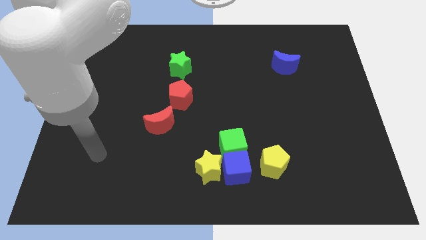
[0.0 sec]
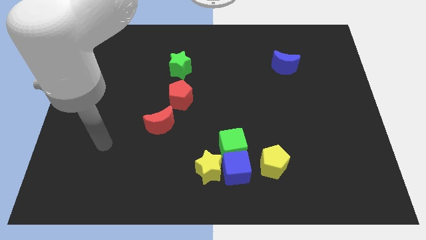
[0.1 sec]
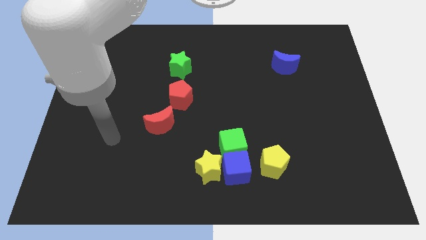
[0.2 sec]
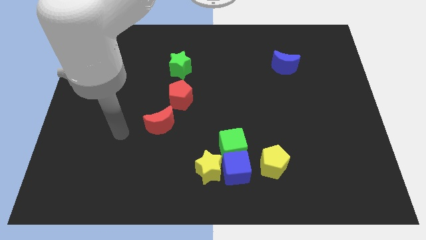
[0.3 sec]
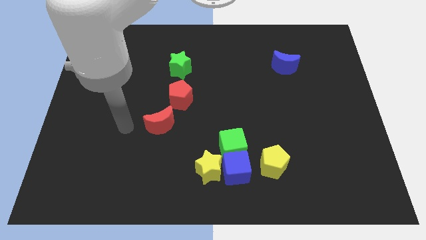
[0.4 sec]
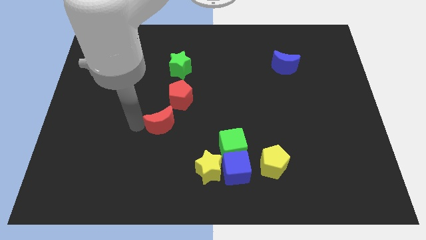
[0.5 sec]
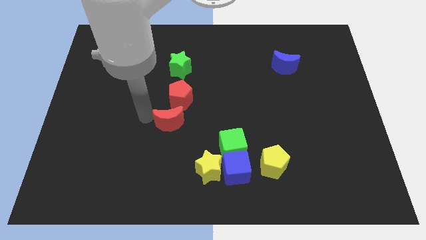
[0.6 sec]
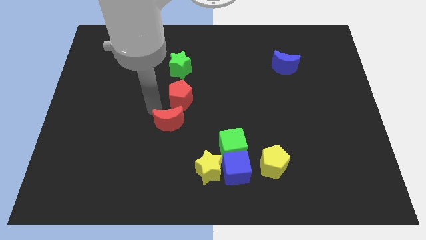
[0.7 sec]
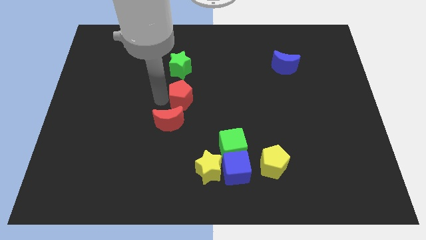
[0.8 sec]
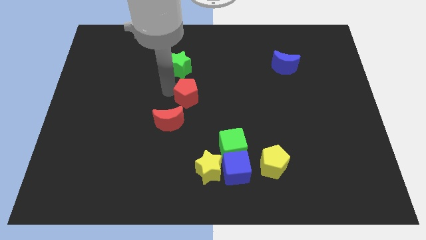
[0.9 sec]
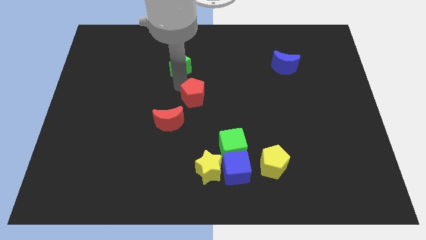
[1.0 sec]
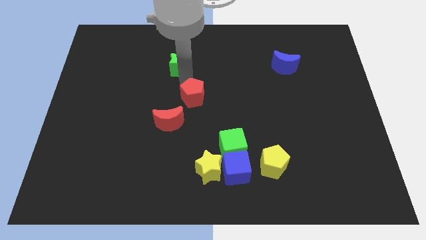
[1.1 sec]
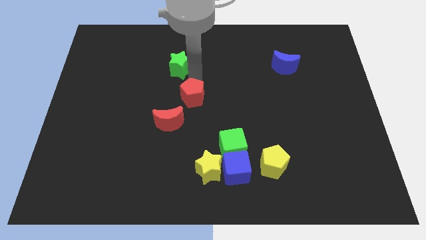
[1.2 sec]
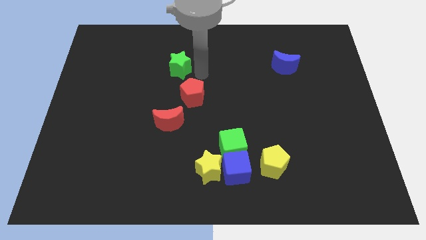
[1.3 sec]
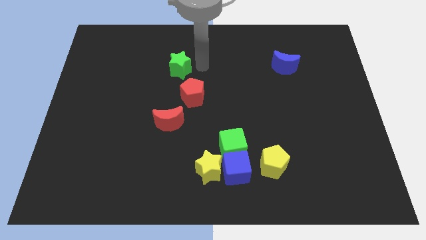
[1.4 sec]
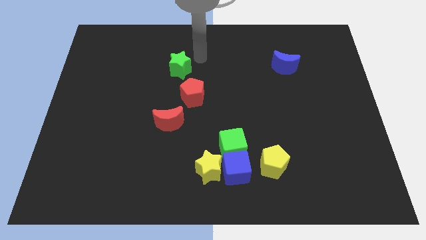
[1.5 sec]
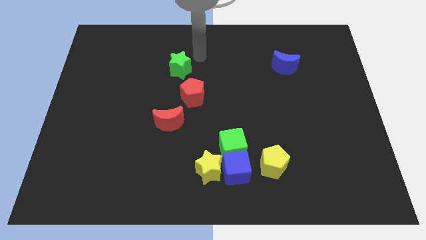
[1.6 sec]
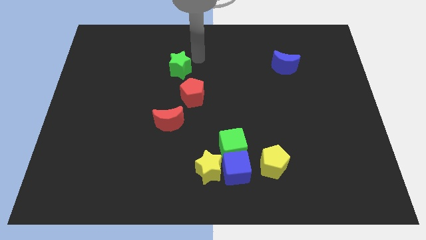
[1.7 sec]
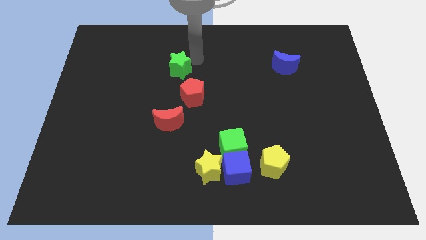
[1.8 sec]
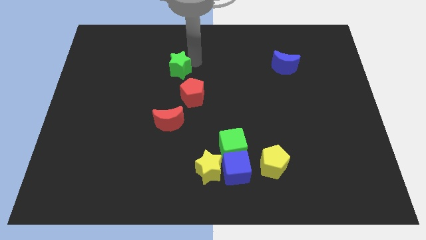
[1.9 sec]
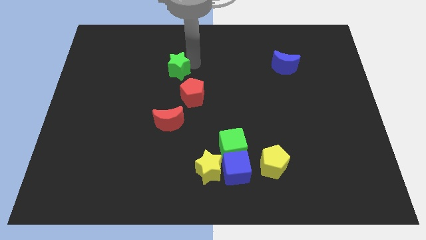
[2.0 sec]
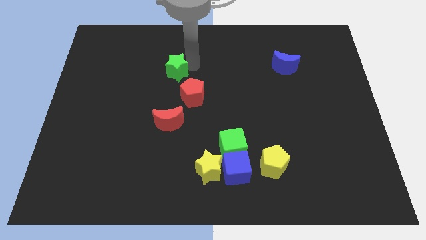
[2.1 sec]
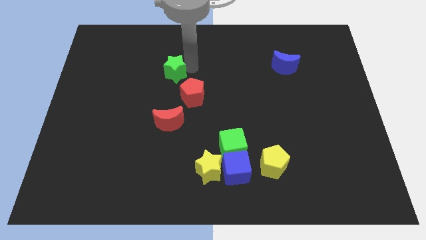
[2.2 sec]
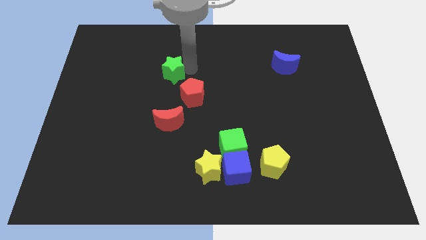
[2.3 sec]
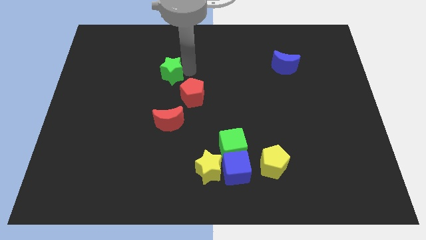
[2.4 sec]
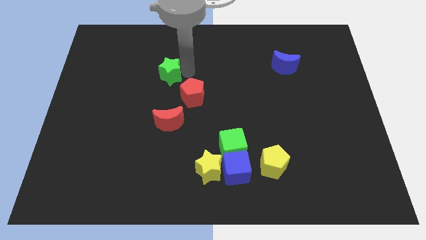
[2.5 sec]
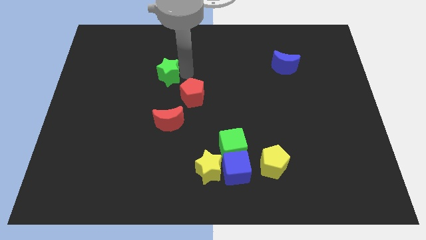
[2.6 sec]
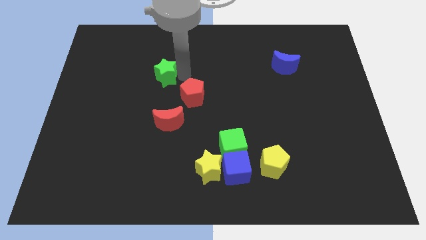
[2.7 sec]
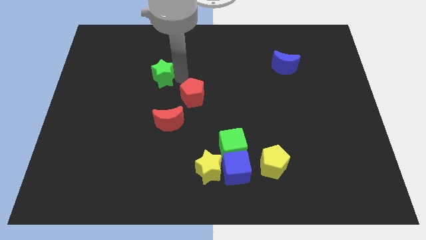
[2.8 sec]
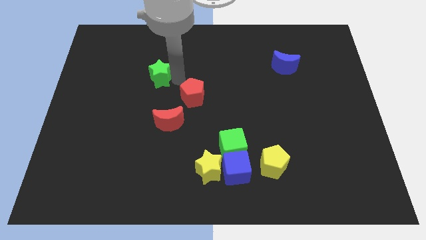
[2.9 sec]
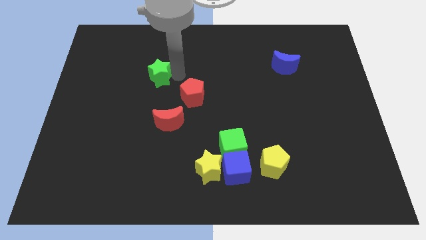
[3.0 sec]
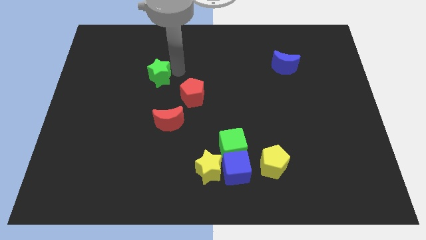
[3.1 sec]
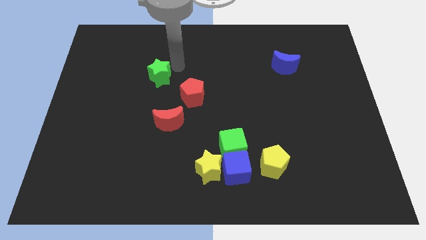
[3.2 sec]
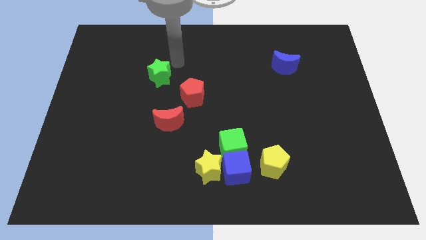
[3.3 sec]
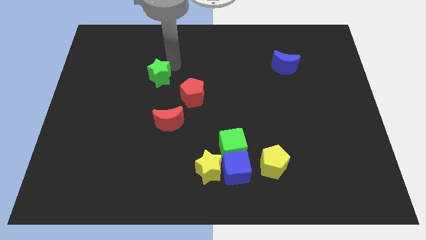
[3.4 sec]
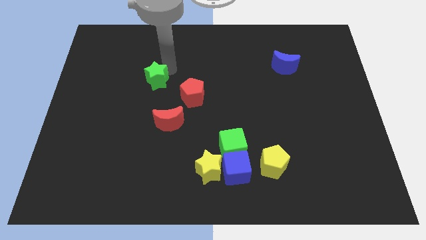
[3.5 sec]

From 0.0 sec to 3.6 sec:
move the green star diagonally downwards and left a little bit

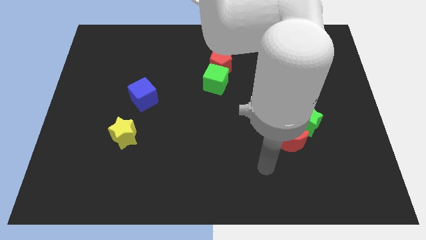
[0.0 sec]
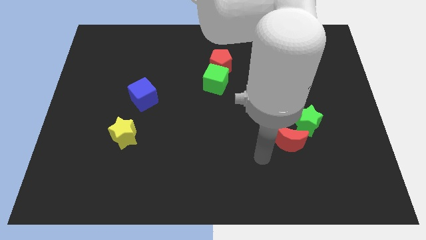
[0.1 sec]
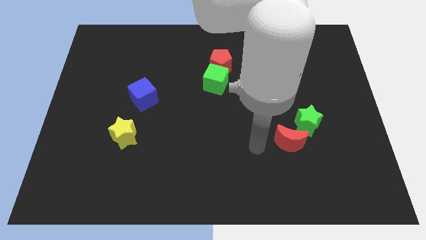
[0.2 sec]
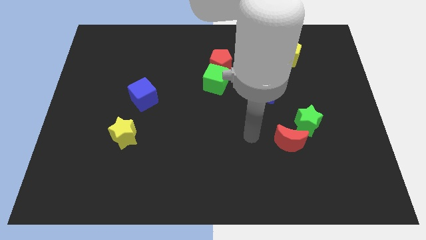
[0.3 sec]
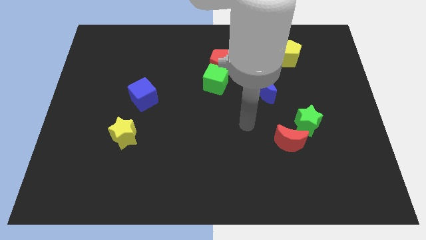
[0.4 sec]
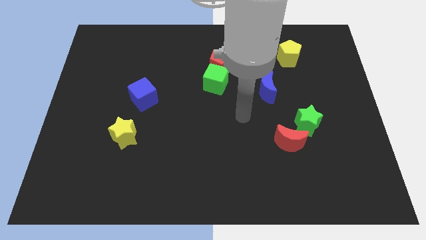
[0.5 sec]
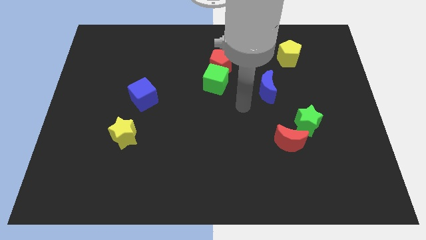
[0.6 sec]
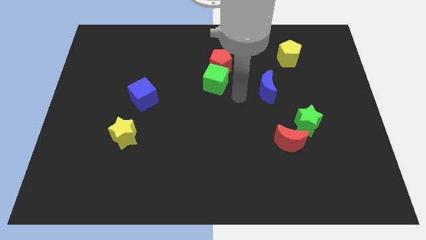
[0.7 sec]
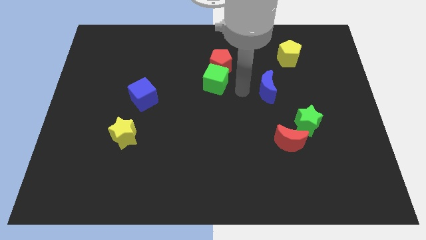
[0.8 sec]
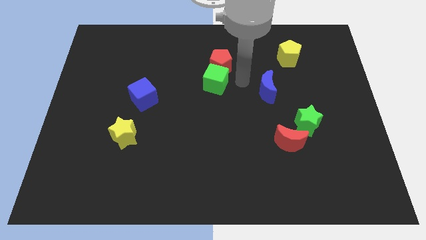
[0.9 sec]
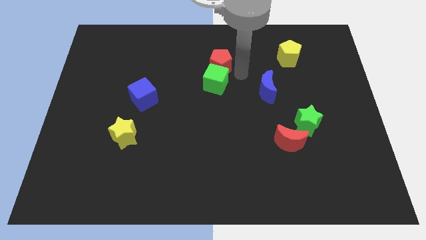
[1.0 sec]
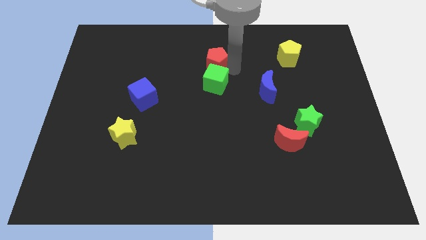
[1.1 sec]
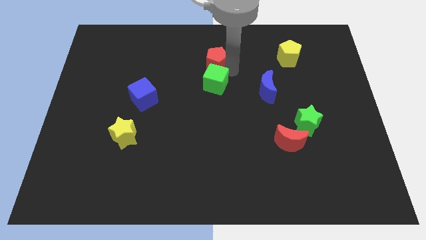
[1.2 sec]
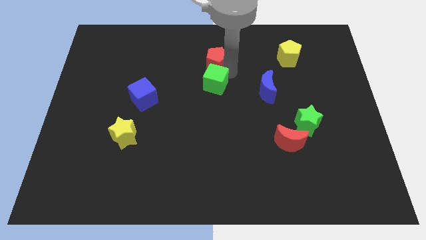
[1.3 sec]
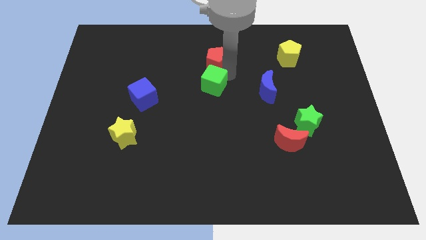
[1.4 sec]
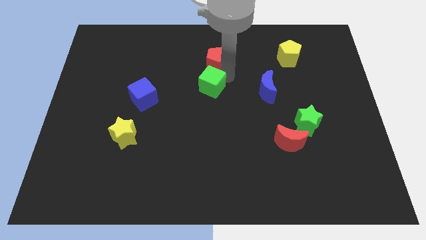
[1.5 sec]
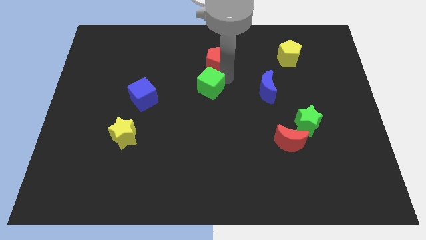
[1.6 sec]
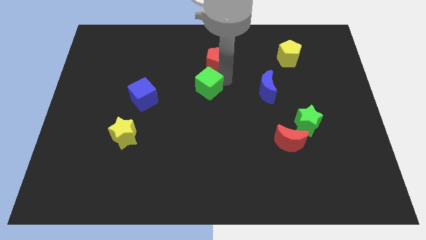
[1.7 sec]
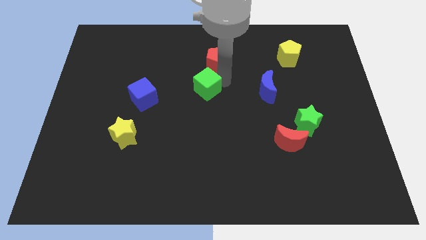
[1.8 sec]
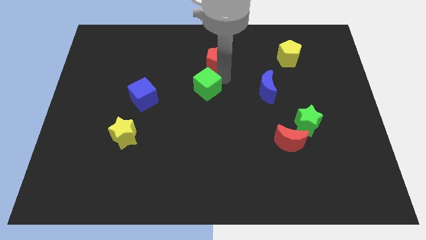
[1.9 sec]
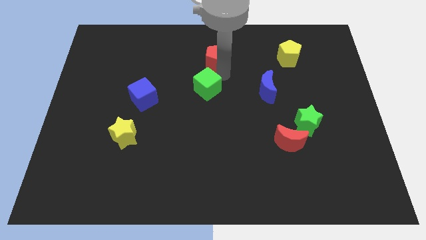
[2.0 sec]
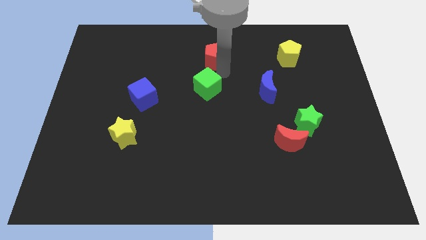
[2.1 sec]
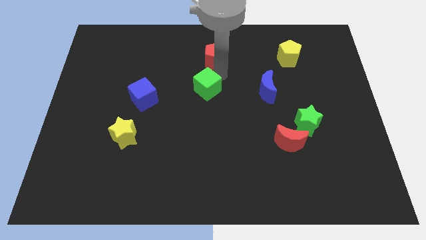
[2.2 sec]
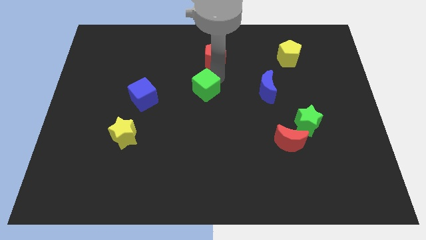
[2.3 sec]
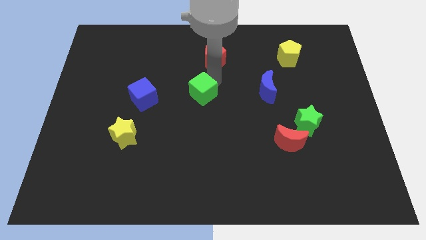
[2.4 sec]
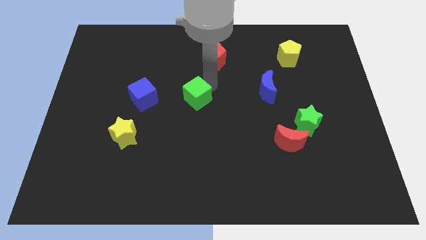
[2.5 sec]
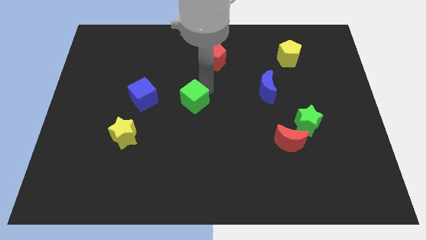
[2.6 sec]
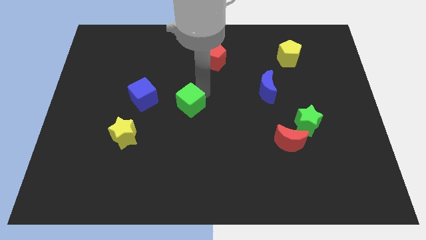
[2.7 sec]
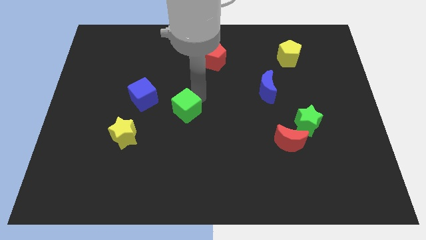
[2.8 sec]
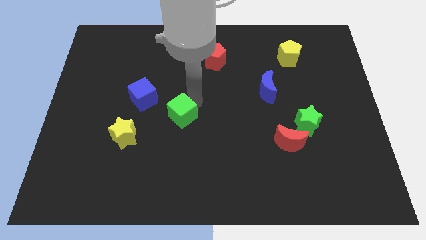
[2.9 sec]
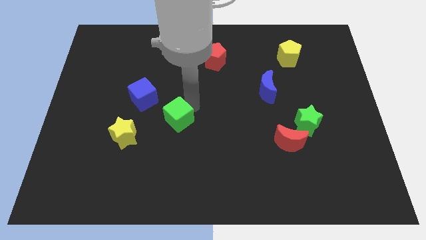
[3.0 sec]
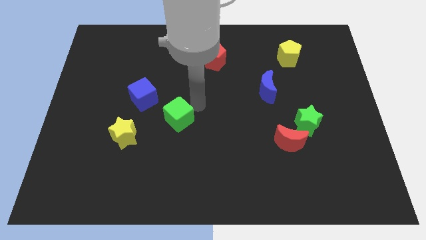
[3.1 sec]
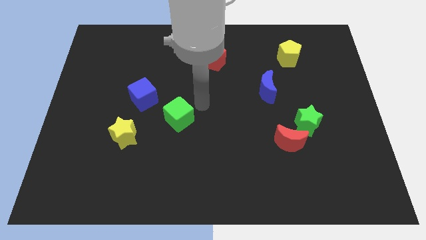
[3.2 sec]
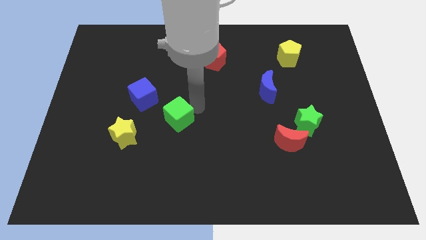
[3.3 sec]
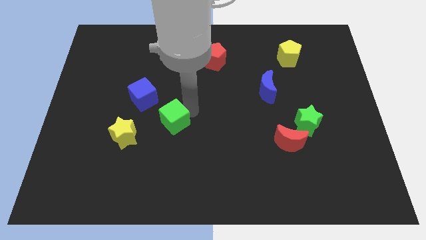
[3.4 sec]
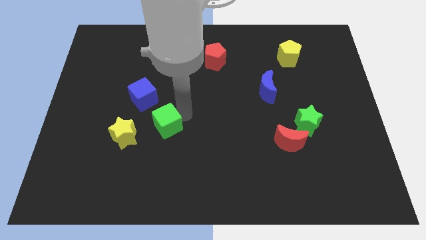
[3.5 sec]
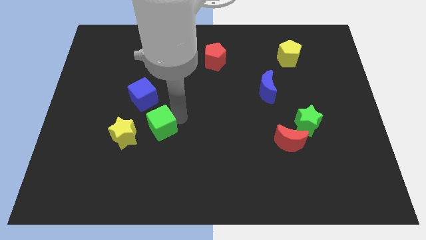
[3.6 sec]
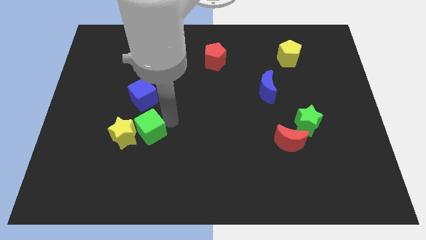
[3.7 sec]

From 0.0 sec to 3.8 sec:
move the green cube down and left diagonally

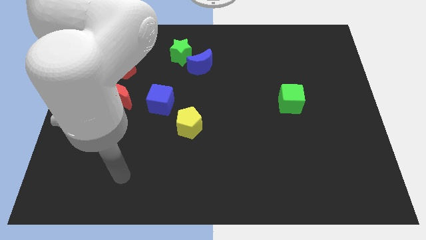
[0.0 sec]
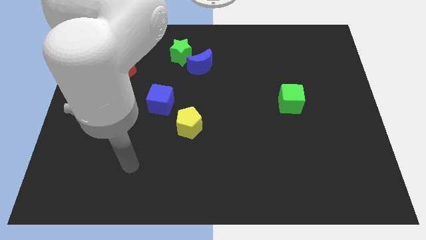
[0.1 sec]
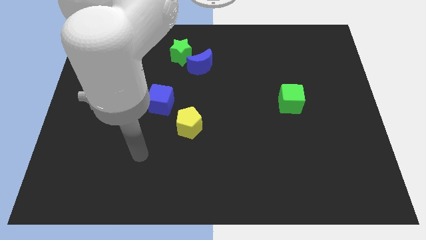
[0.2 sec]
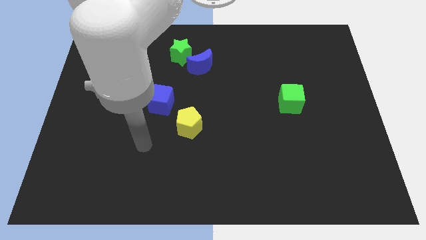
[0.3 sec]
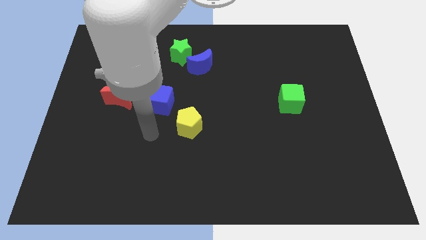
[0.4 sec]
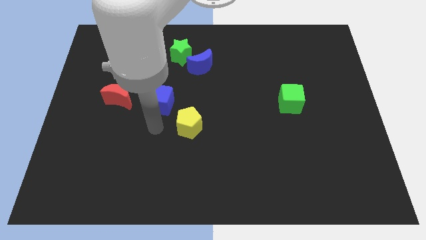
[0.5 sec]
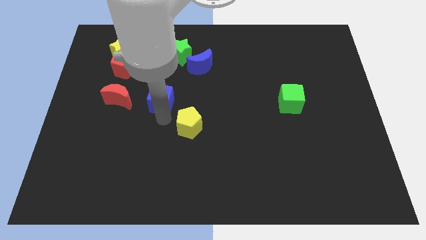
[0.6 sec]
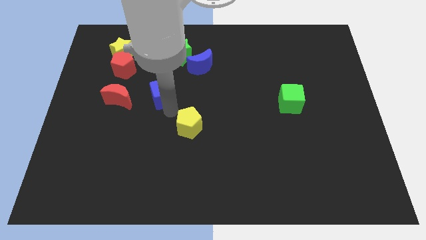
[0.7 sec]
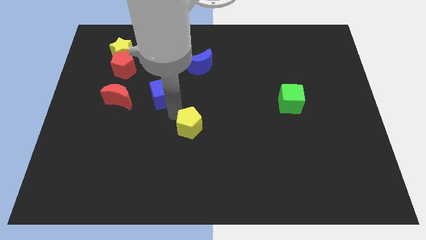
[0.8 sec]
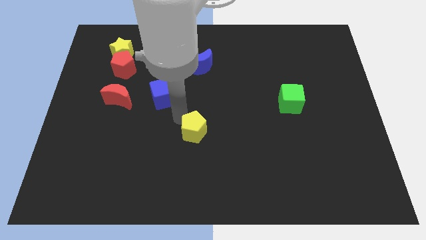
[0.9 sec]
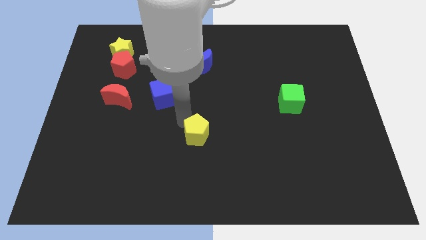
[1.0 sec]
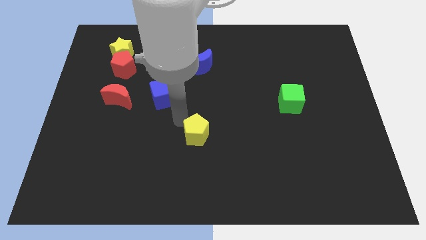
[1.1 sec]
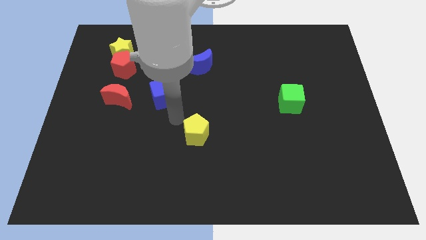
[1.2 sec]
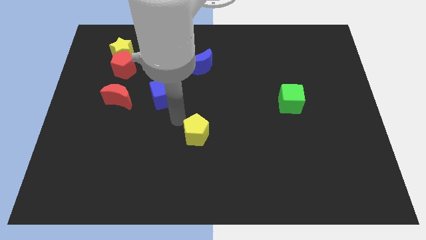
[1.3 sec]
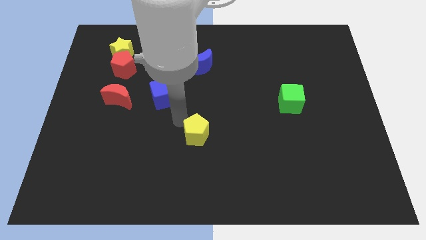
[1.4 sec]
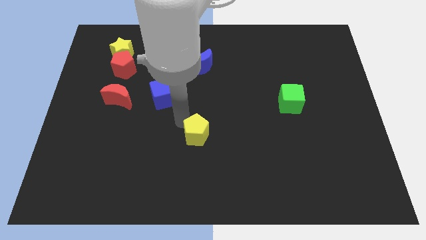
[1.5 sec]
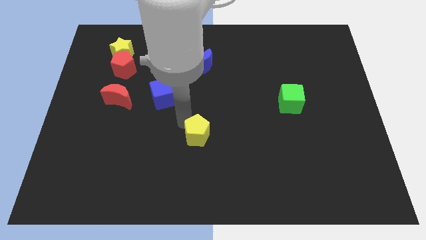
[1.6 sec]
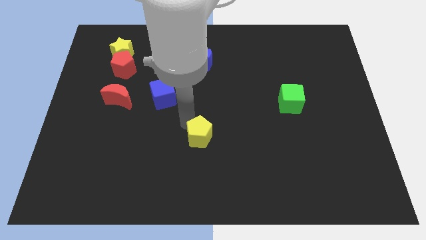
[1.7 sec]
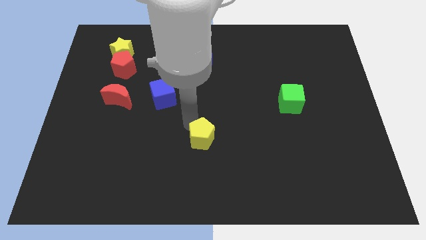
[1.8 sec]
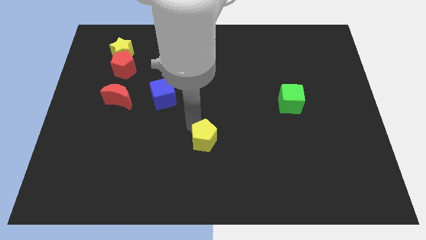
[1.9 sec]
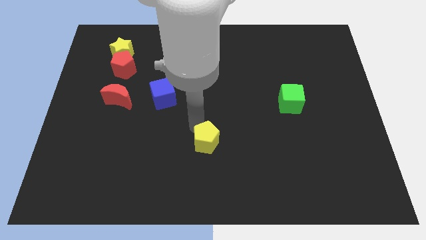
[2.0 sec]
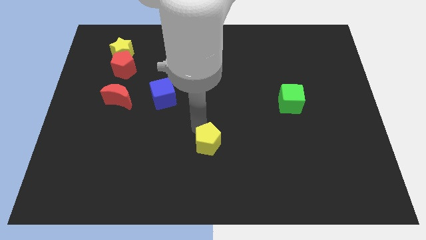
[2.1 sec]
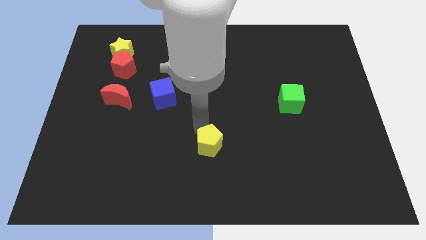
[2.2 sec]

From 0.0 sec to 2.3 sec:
slide the yellow pentagon downwards and to the right slightly
